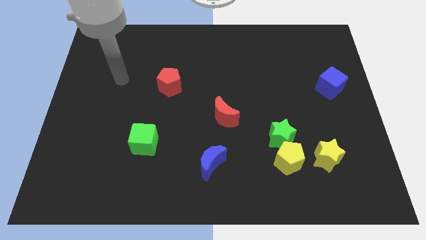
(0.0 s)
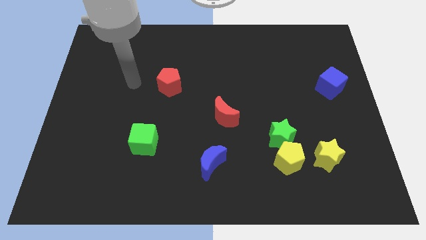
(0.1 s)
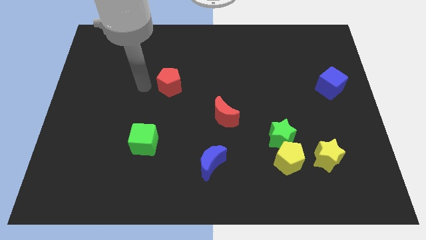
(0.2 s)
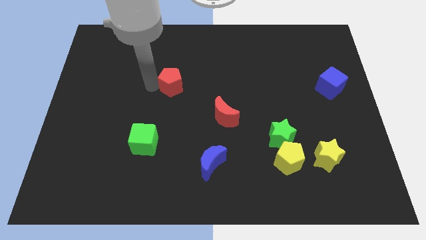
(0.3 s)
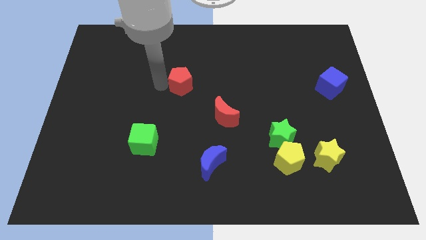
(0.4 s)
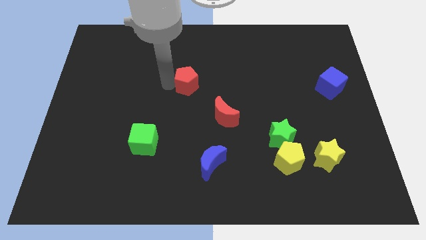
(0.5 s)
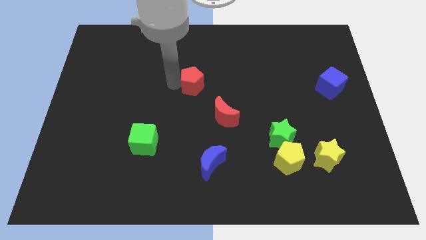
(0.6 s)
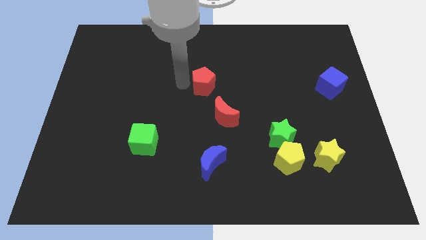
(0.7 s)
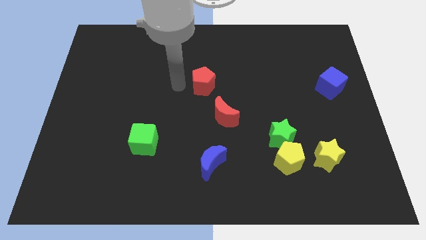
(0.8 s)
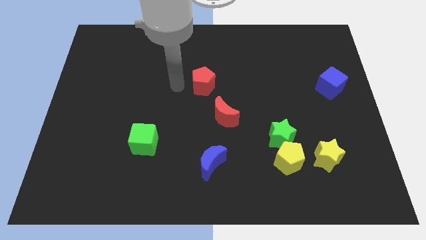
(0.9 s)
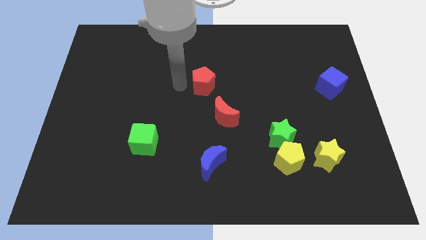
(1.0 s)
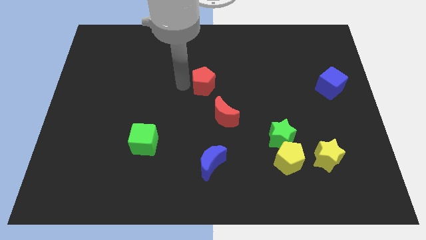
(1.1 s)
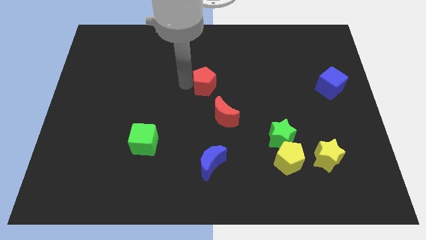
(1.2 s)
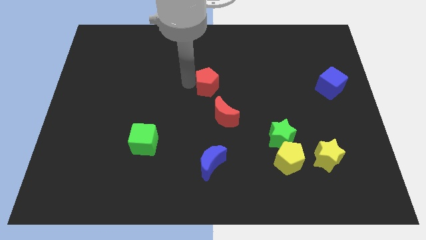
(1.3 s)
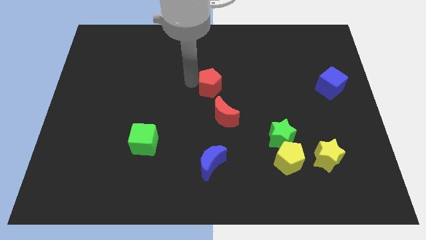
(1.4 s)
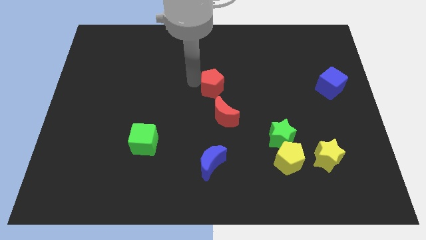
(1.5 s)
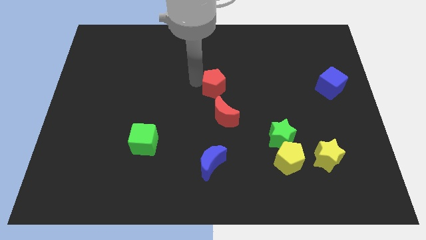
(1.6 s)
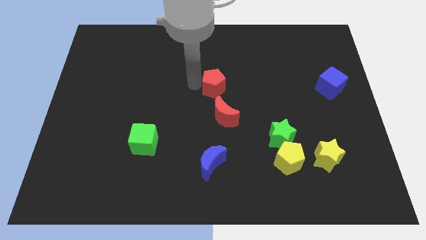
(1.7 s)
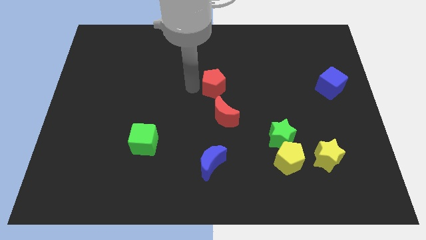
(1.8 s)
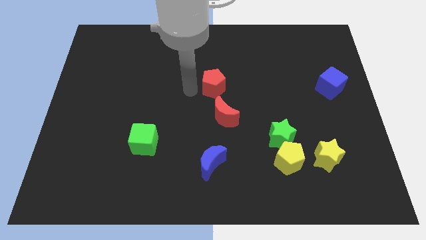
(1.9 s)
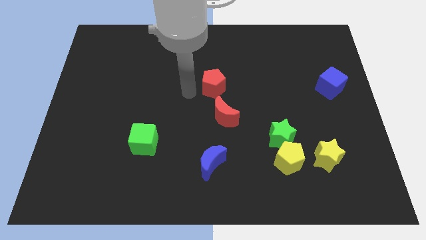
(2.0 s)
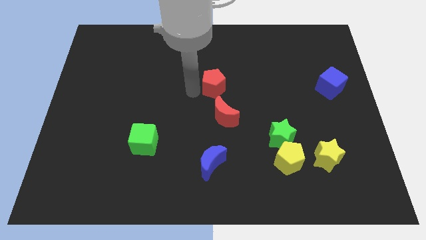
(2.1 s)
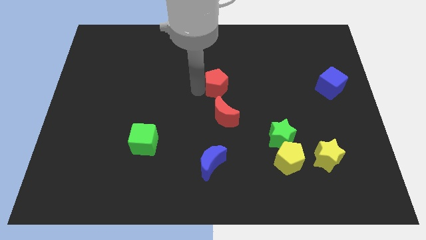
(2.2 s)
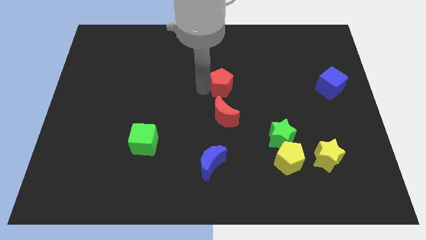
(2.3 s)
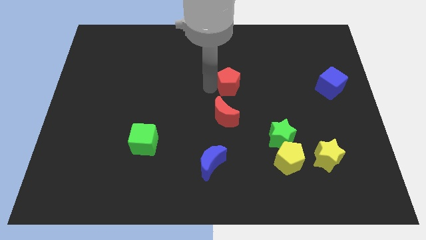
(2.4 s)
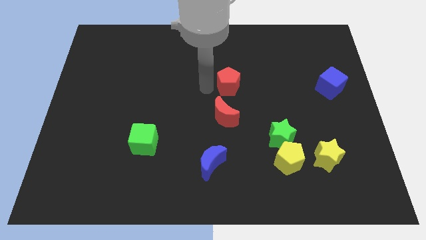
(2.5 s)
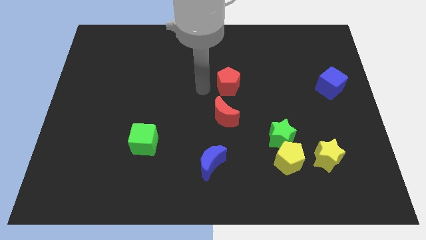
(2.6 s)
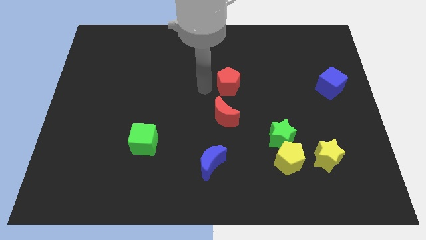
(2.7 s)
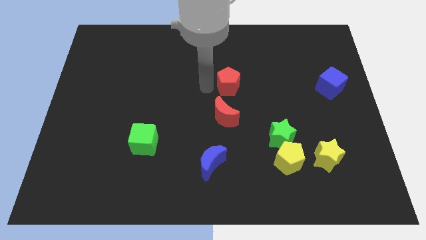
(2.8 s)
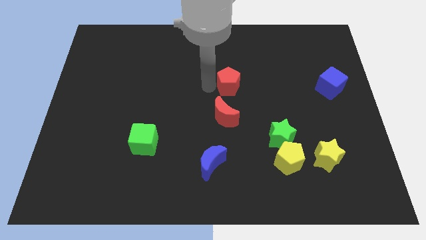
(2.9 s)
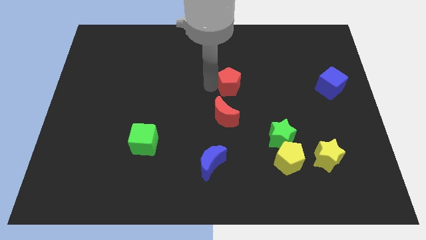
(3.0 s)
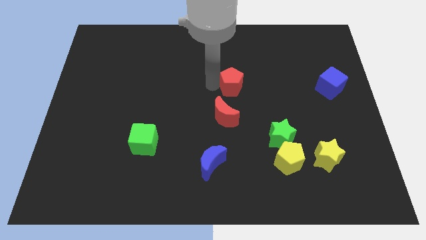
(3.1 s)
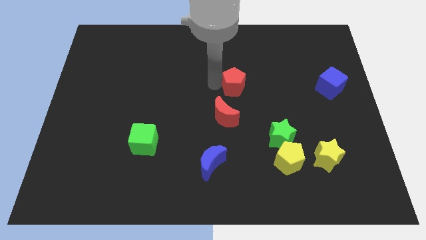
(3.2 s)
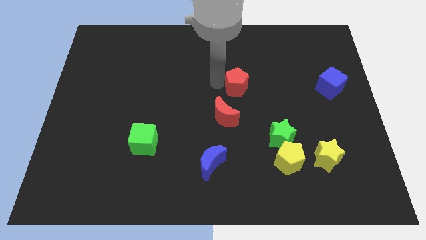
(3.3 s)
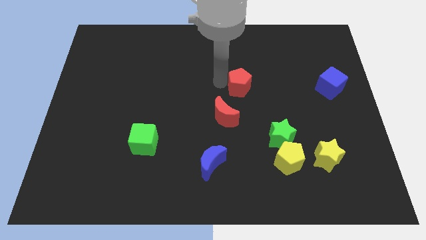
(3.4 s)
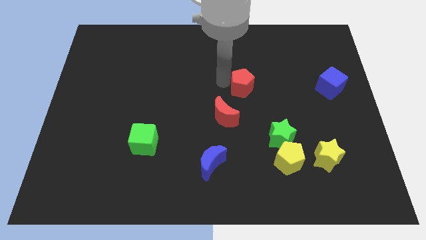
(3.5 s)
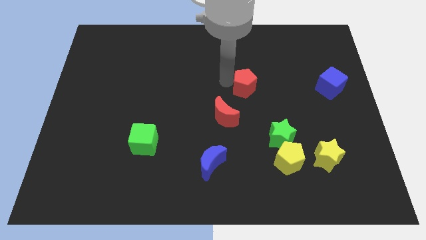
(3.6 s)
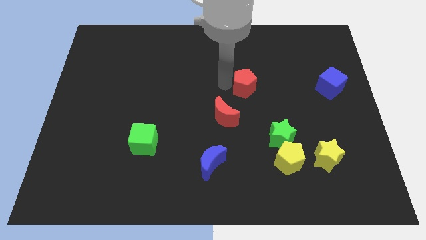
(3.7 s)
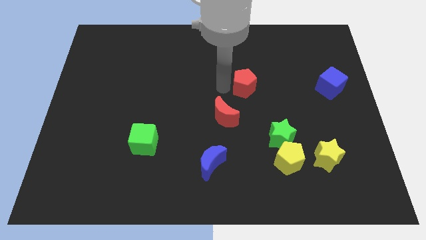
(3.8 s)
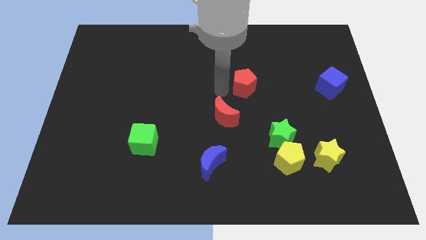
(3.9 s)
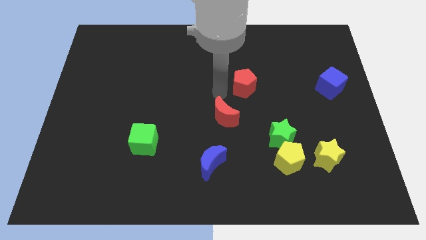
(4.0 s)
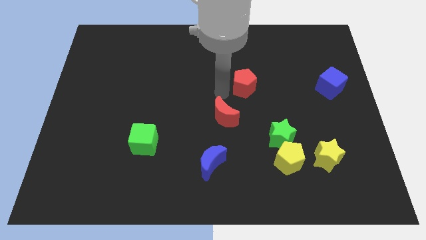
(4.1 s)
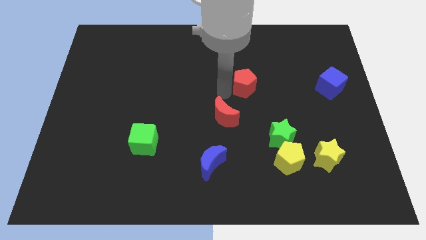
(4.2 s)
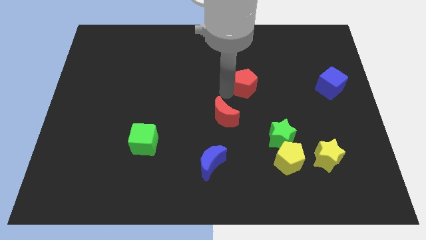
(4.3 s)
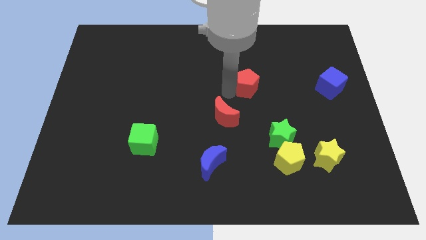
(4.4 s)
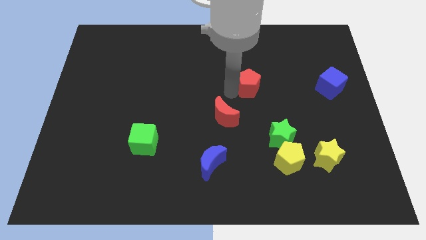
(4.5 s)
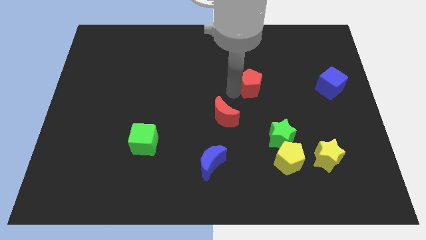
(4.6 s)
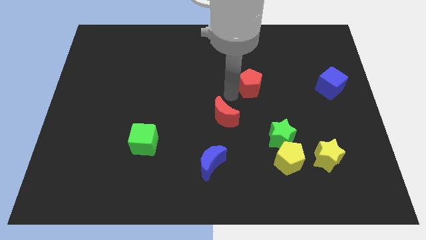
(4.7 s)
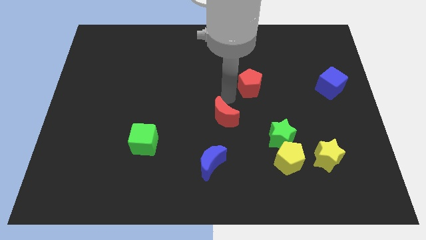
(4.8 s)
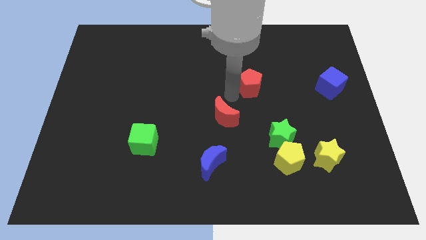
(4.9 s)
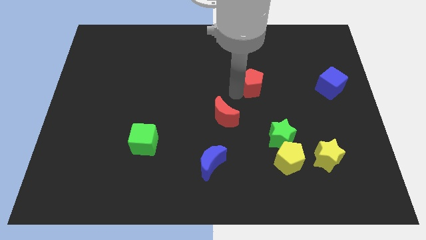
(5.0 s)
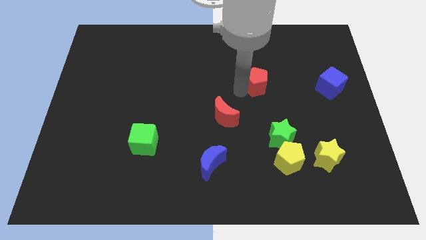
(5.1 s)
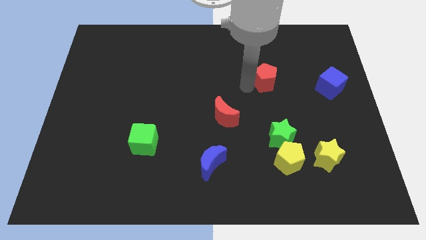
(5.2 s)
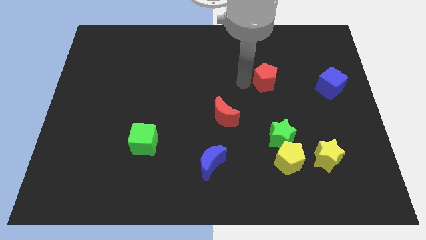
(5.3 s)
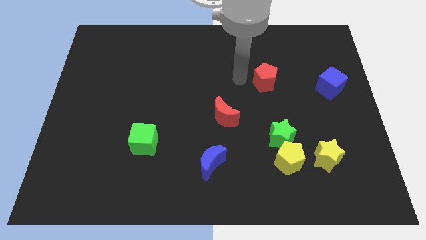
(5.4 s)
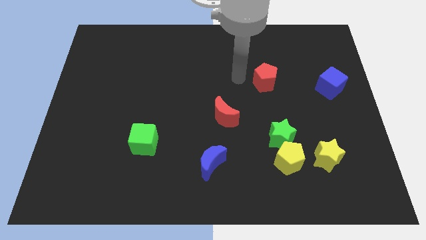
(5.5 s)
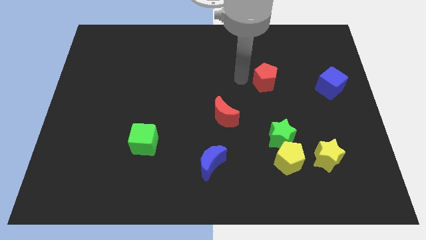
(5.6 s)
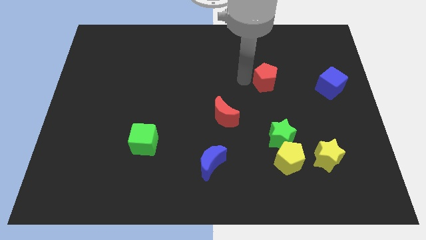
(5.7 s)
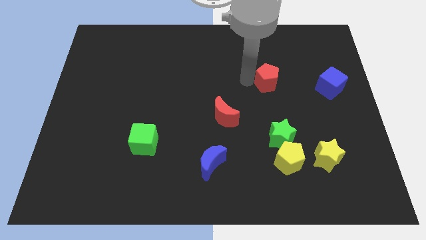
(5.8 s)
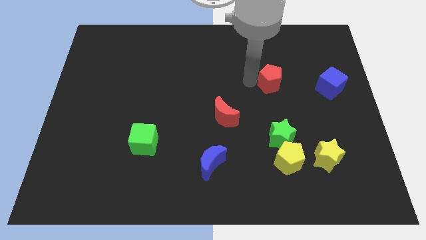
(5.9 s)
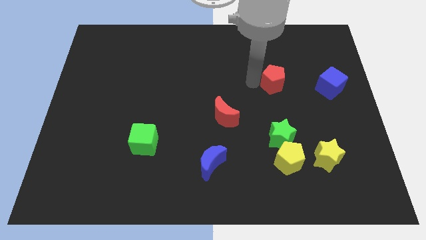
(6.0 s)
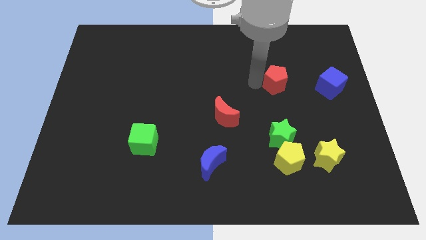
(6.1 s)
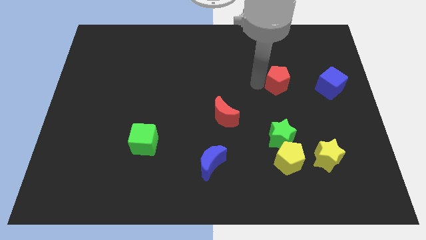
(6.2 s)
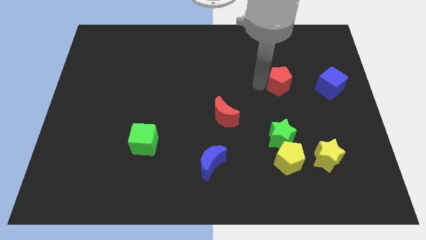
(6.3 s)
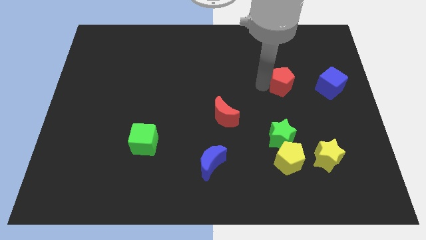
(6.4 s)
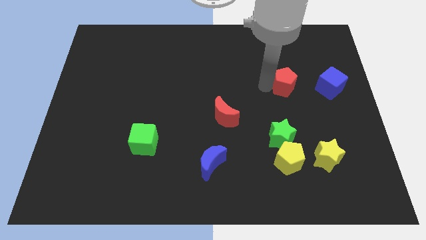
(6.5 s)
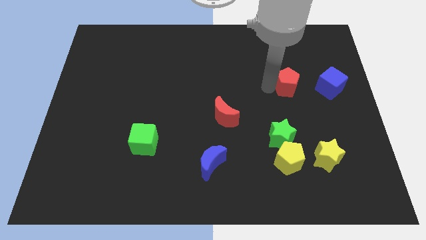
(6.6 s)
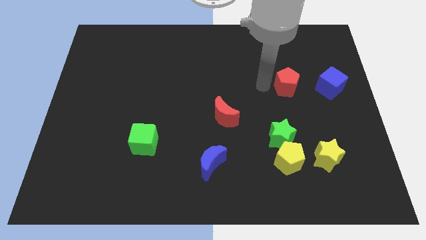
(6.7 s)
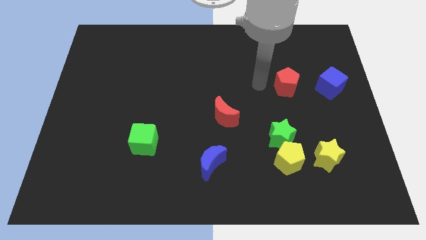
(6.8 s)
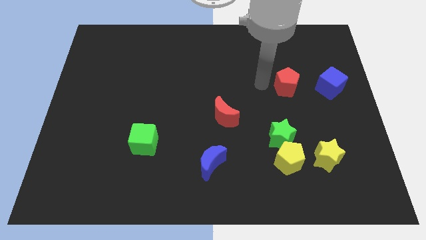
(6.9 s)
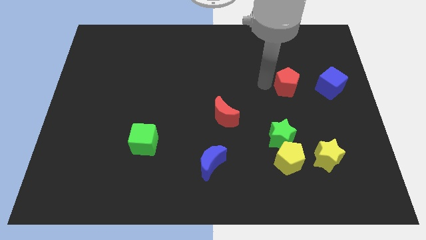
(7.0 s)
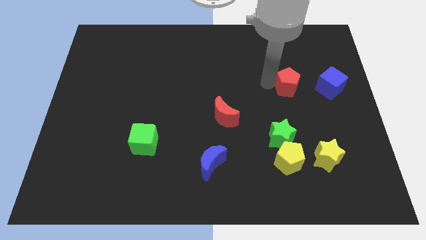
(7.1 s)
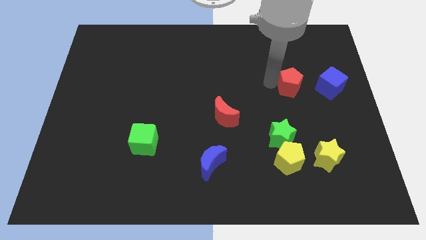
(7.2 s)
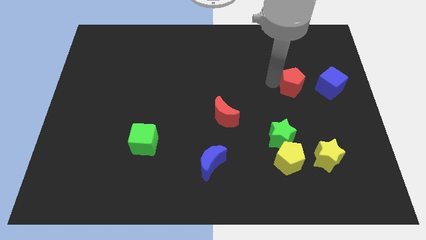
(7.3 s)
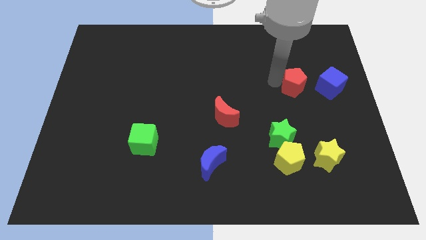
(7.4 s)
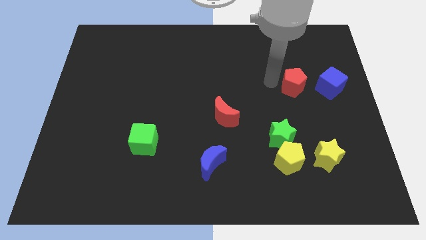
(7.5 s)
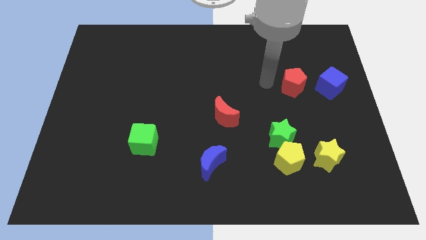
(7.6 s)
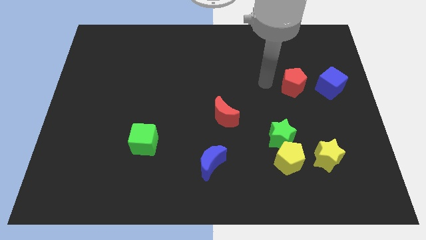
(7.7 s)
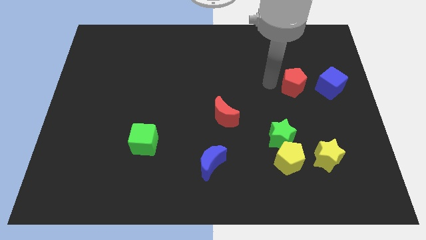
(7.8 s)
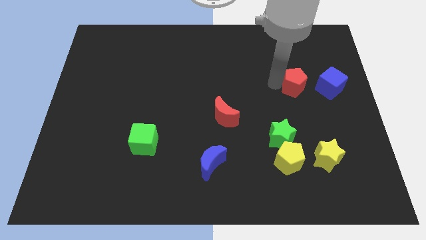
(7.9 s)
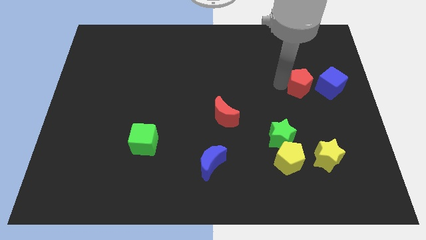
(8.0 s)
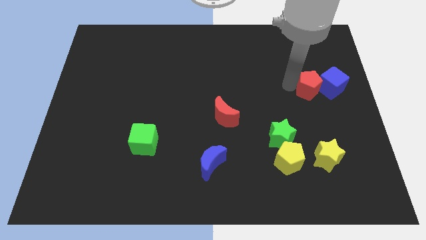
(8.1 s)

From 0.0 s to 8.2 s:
push the red pentagon next to the blue cube
